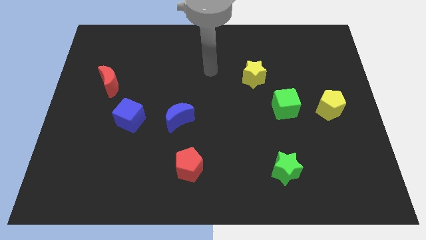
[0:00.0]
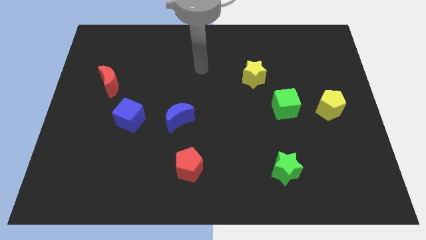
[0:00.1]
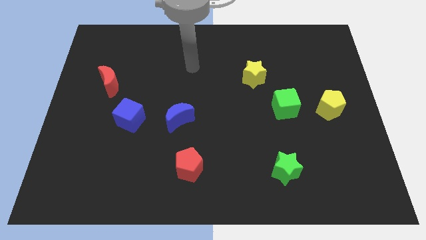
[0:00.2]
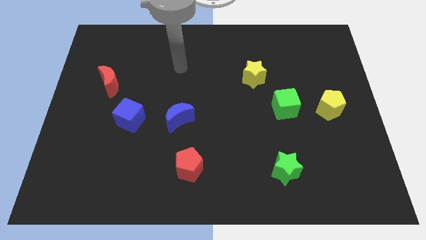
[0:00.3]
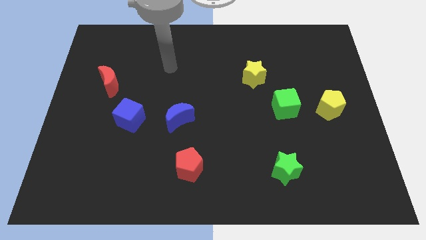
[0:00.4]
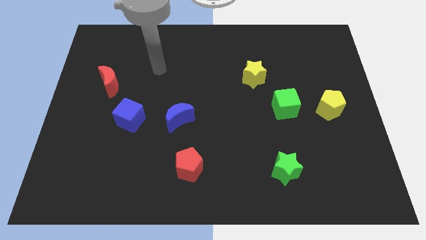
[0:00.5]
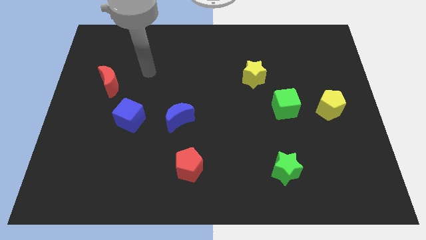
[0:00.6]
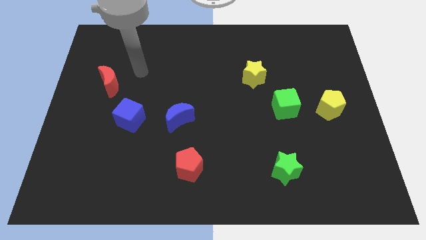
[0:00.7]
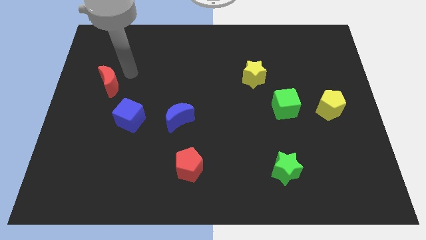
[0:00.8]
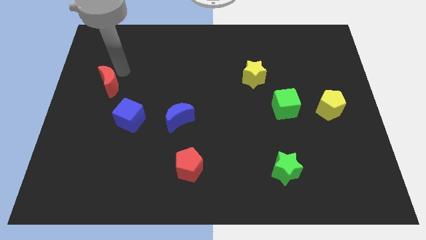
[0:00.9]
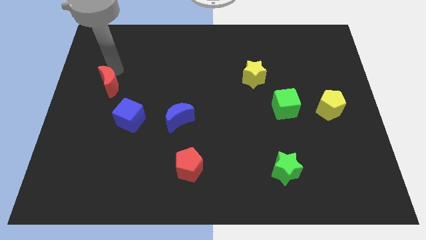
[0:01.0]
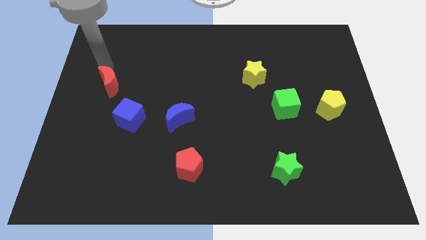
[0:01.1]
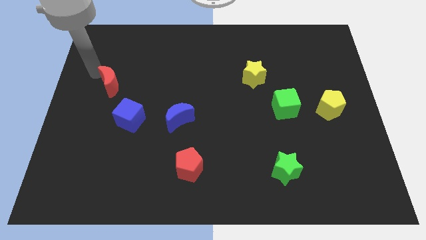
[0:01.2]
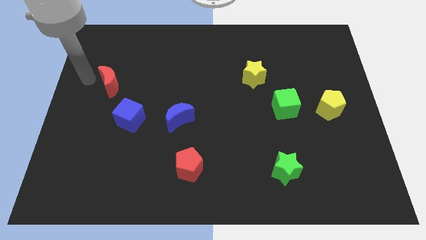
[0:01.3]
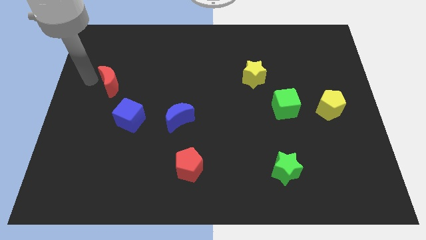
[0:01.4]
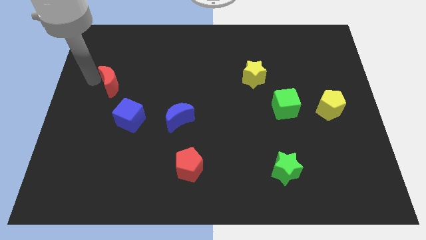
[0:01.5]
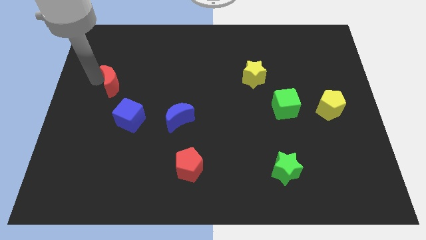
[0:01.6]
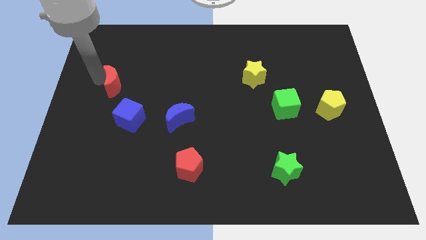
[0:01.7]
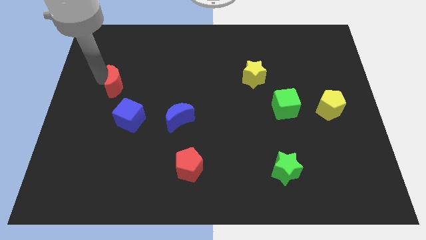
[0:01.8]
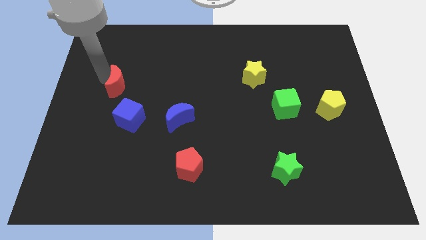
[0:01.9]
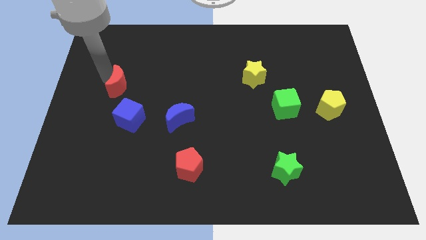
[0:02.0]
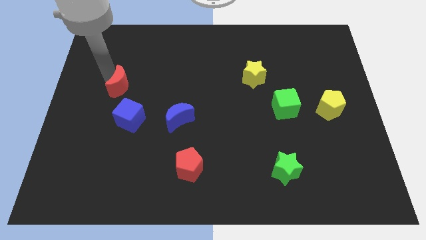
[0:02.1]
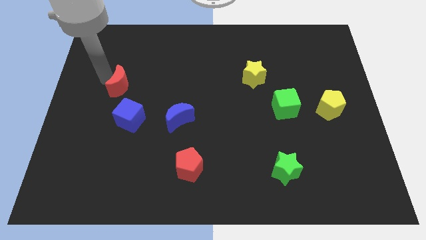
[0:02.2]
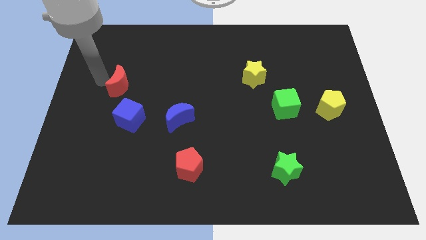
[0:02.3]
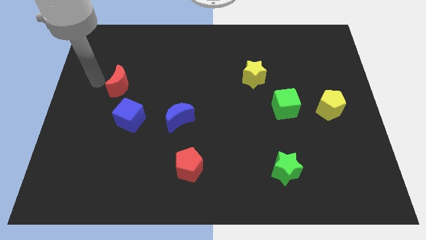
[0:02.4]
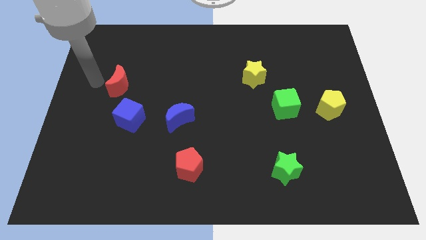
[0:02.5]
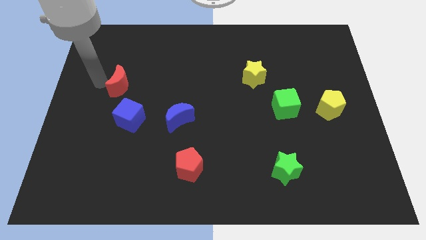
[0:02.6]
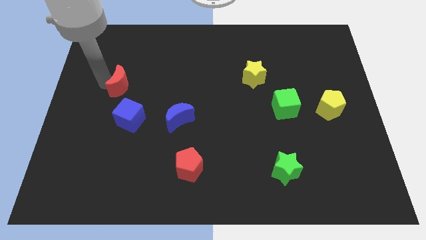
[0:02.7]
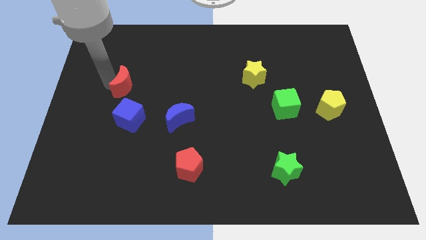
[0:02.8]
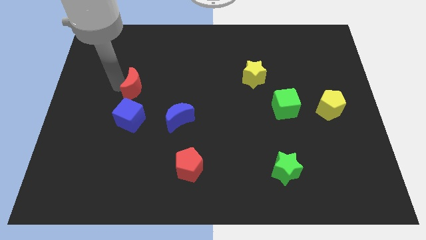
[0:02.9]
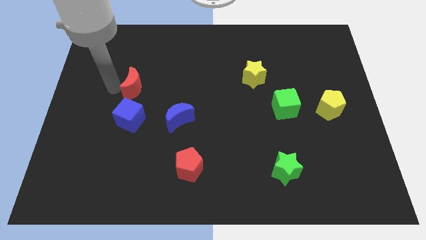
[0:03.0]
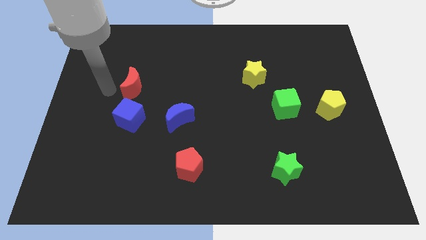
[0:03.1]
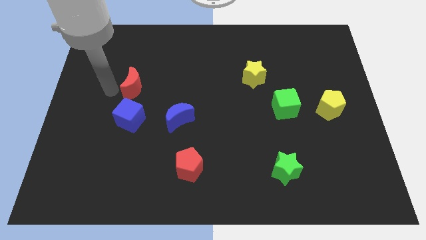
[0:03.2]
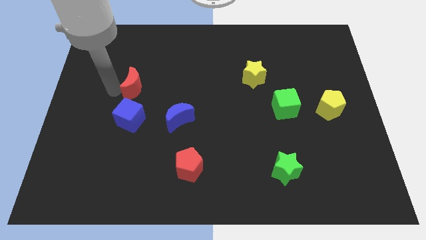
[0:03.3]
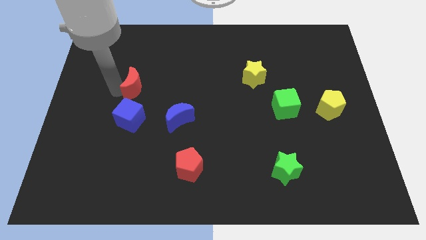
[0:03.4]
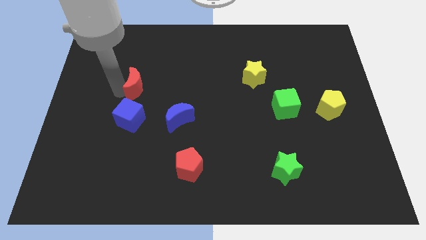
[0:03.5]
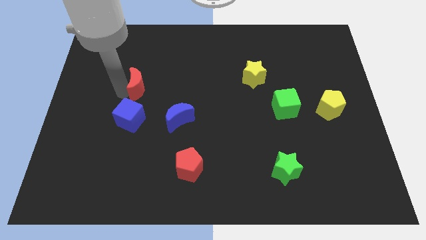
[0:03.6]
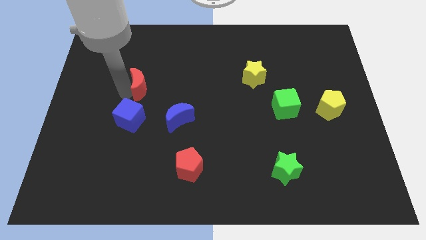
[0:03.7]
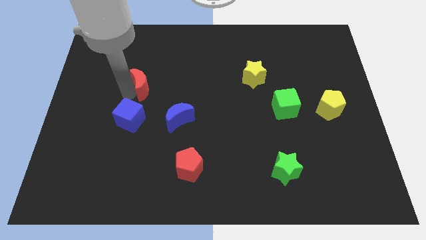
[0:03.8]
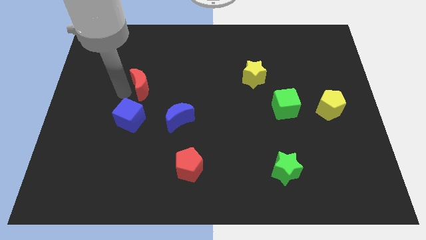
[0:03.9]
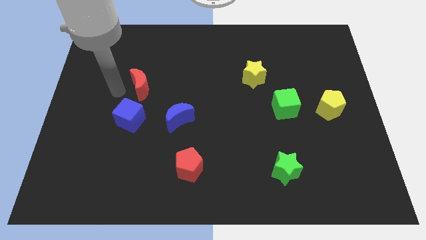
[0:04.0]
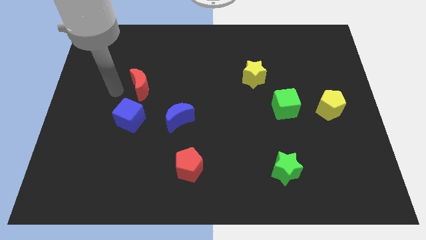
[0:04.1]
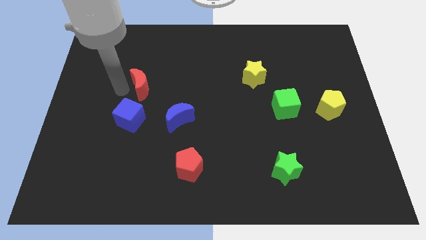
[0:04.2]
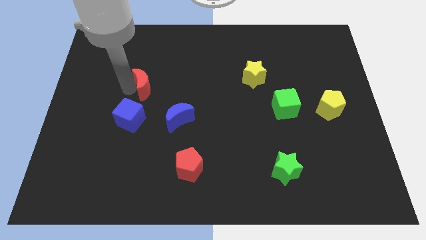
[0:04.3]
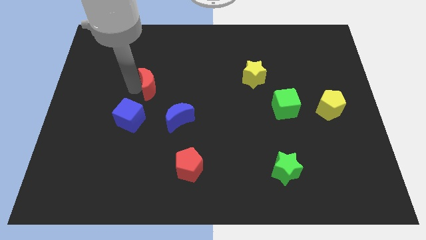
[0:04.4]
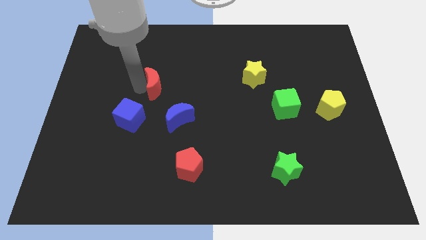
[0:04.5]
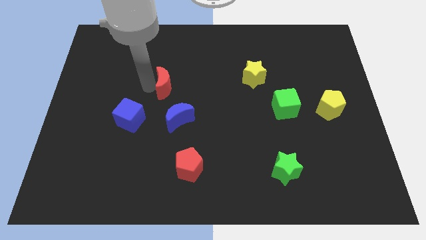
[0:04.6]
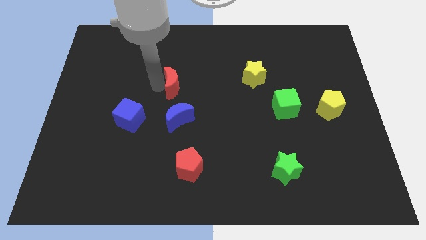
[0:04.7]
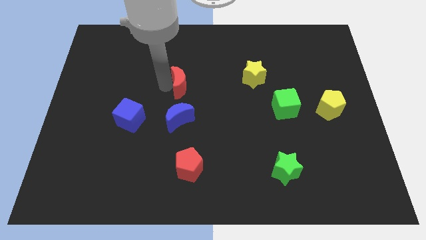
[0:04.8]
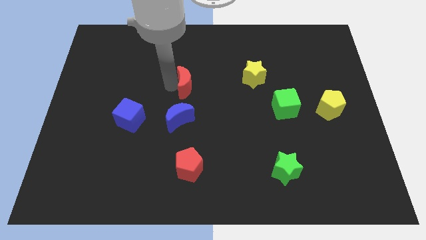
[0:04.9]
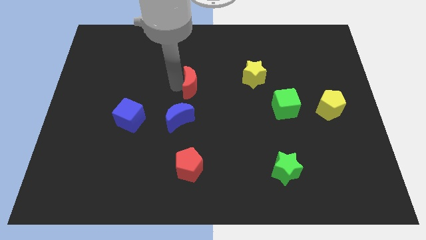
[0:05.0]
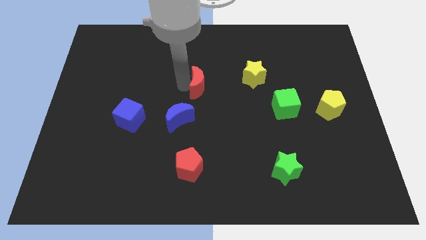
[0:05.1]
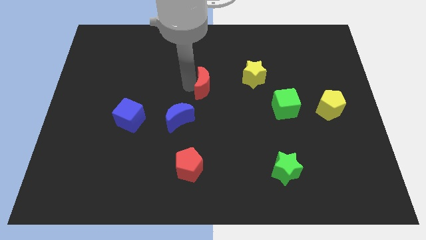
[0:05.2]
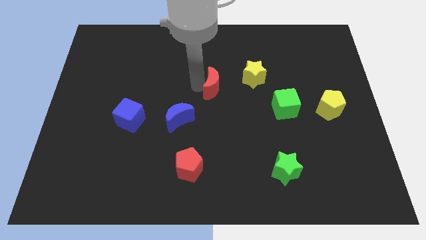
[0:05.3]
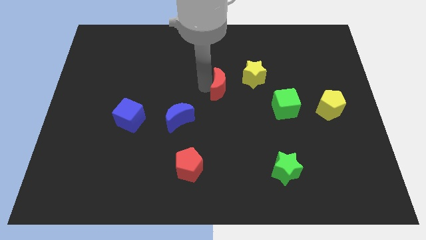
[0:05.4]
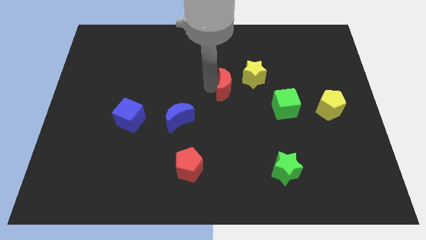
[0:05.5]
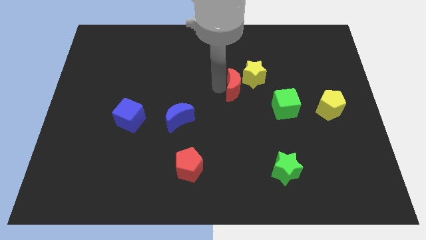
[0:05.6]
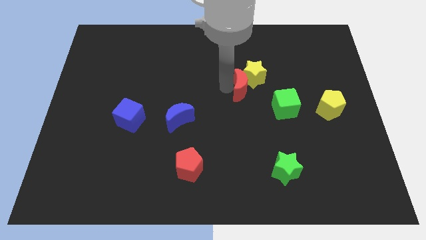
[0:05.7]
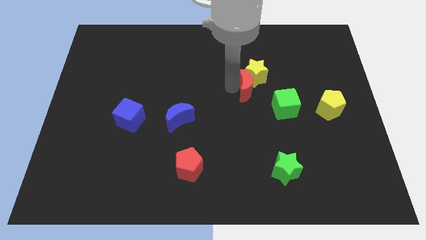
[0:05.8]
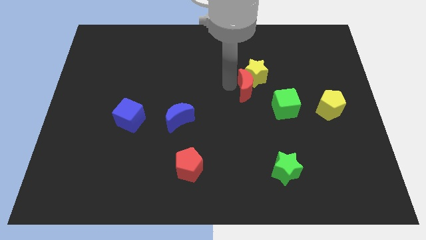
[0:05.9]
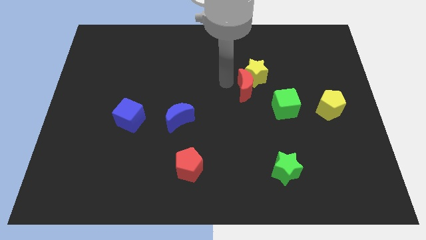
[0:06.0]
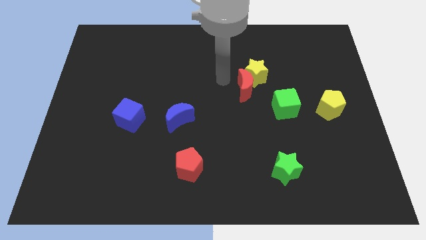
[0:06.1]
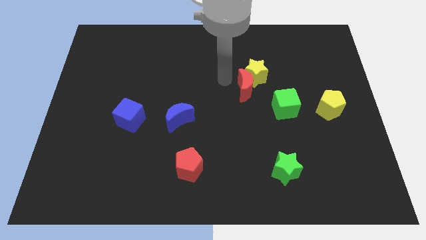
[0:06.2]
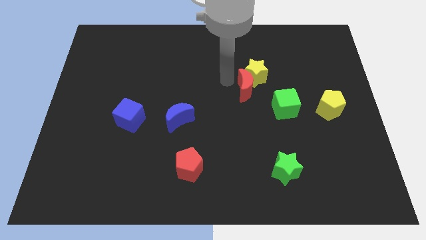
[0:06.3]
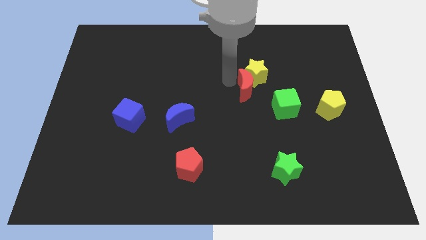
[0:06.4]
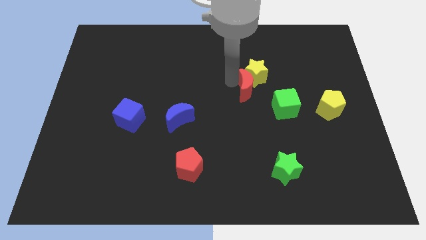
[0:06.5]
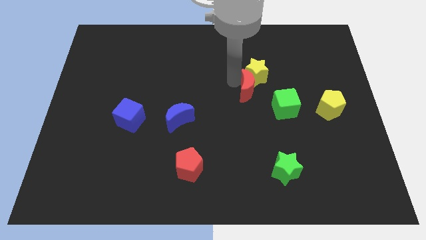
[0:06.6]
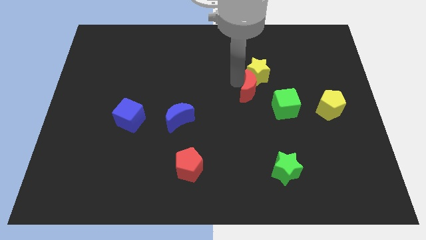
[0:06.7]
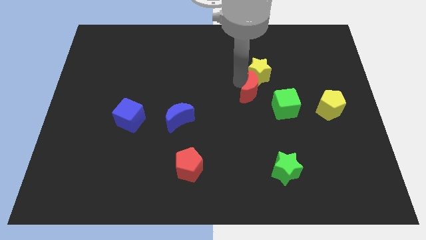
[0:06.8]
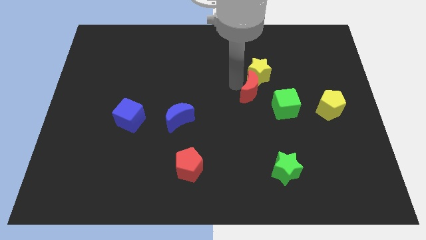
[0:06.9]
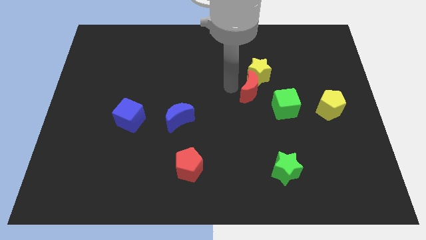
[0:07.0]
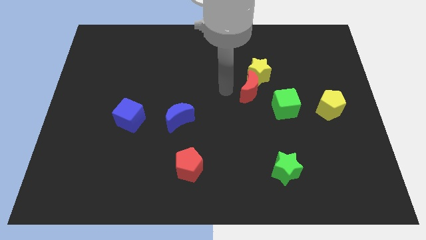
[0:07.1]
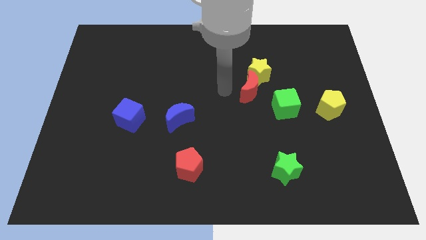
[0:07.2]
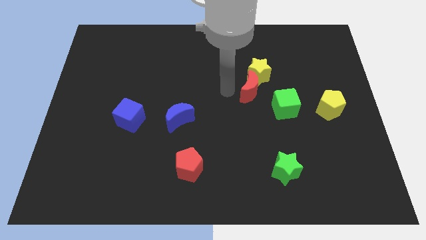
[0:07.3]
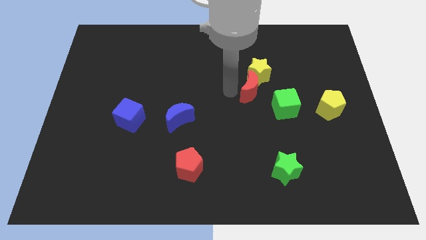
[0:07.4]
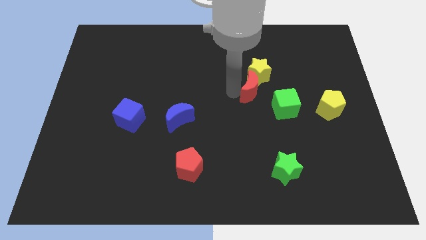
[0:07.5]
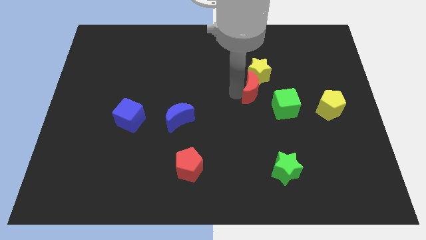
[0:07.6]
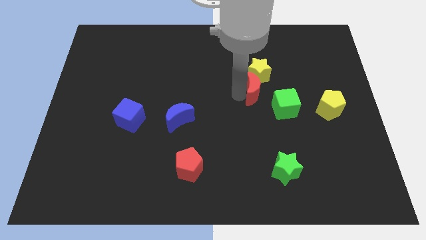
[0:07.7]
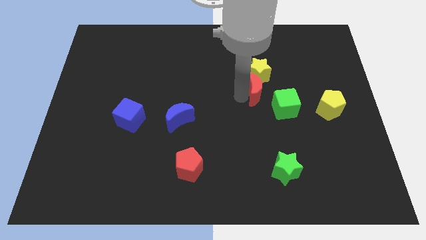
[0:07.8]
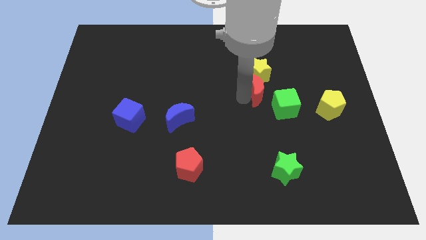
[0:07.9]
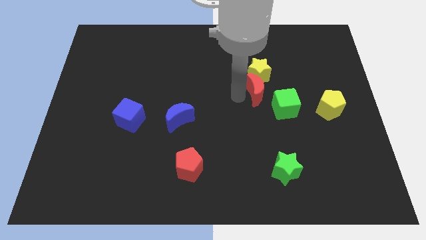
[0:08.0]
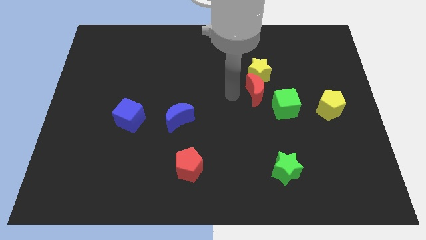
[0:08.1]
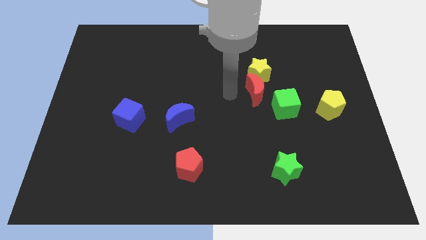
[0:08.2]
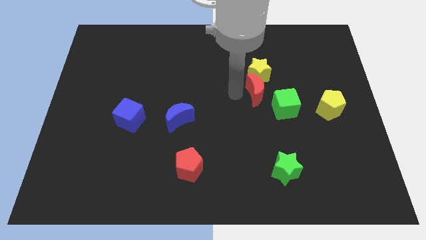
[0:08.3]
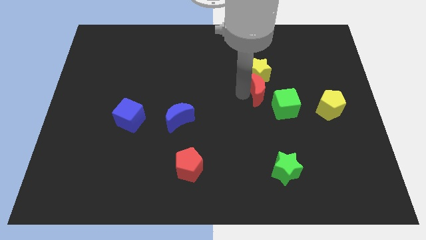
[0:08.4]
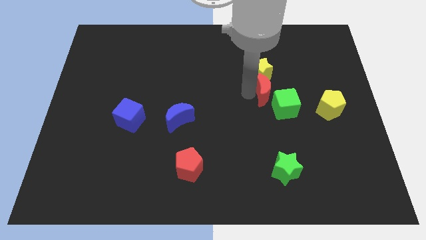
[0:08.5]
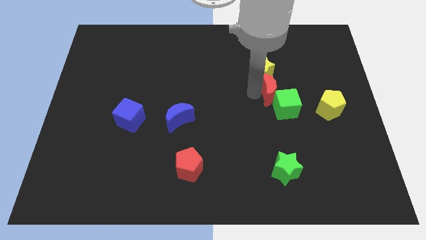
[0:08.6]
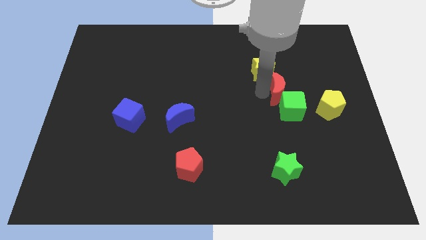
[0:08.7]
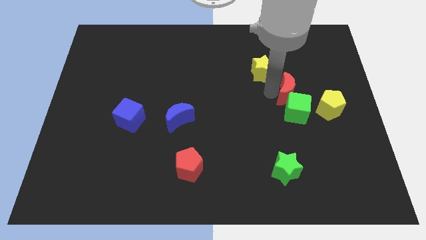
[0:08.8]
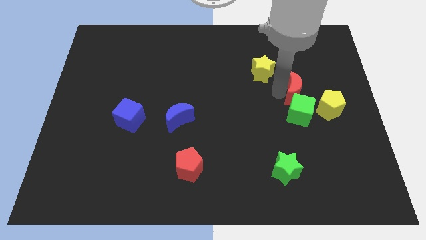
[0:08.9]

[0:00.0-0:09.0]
move the red moon to the top right side of the green cube
